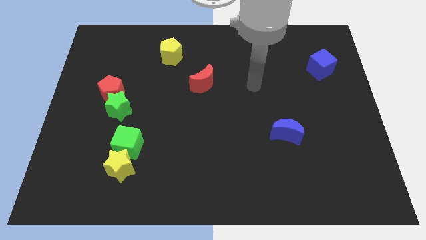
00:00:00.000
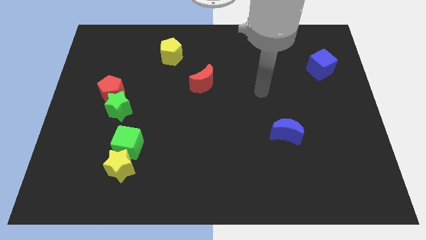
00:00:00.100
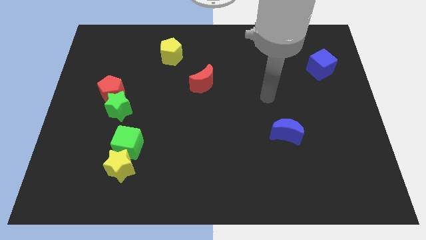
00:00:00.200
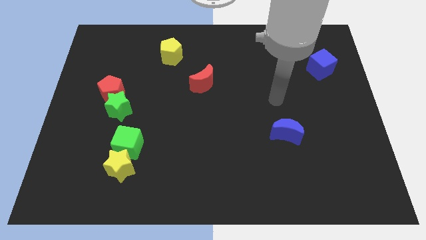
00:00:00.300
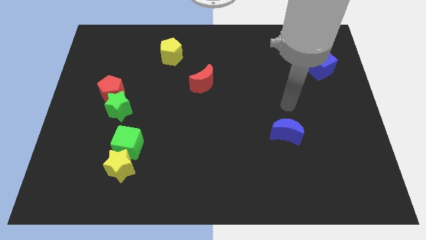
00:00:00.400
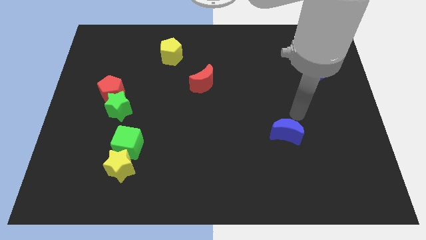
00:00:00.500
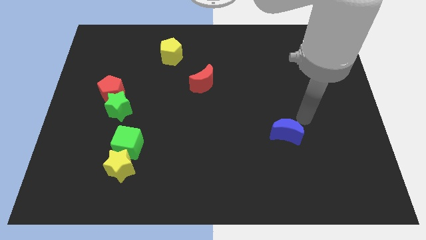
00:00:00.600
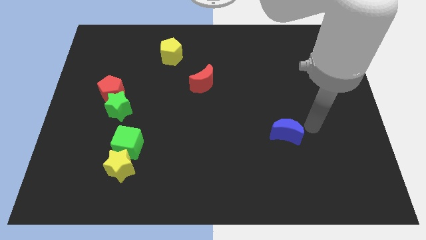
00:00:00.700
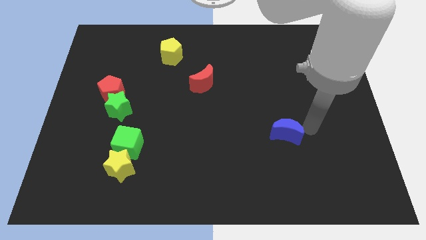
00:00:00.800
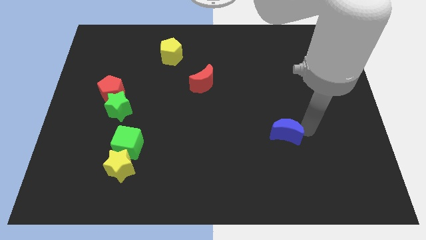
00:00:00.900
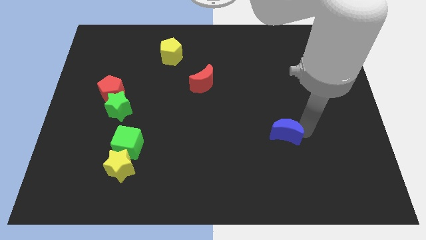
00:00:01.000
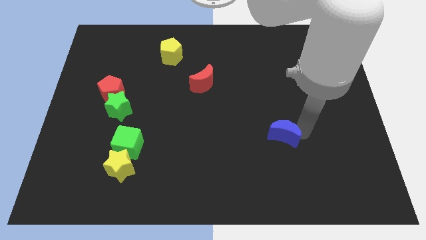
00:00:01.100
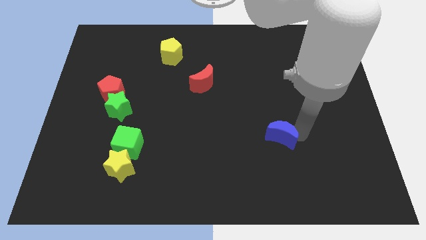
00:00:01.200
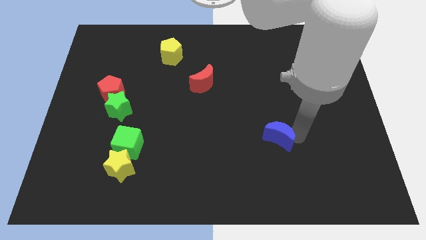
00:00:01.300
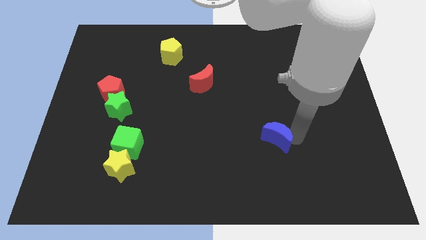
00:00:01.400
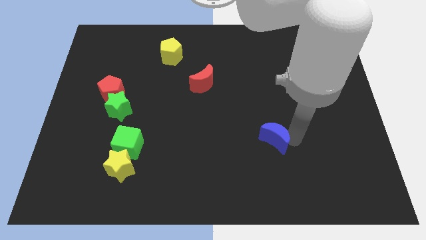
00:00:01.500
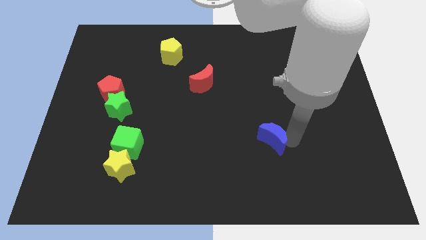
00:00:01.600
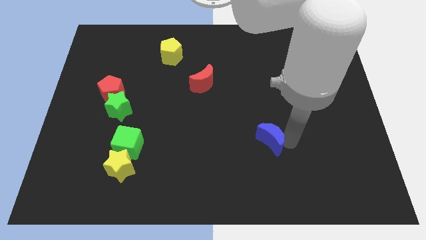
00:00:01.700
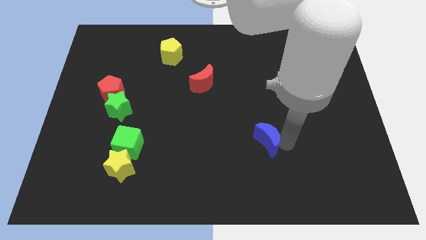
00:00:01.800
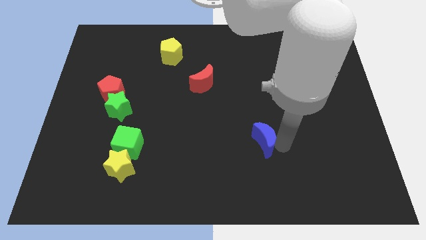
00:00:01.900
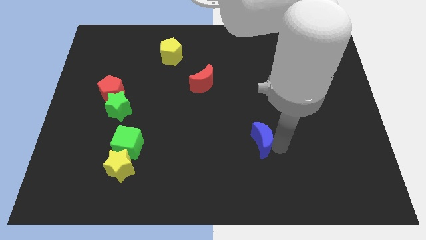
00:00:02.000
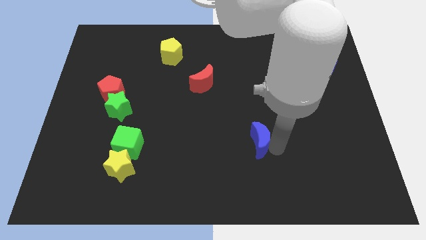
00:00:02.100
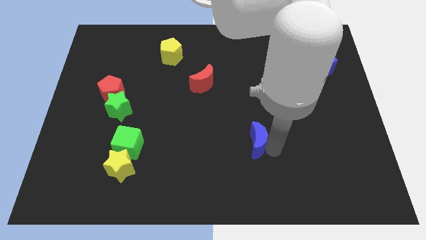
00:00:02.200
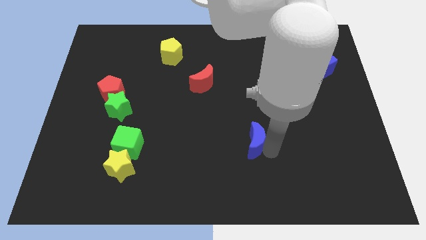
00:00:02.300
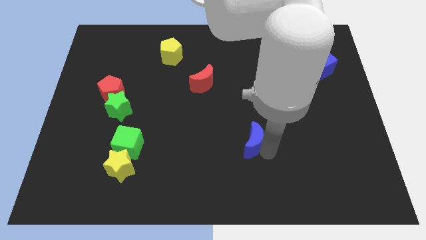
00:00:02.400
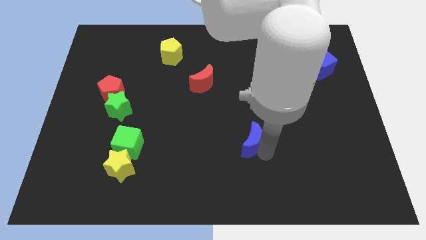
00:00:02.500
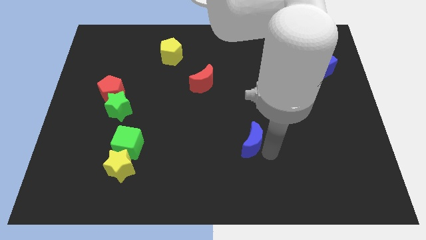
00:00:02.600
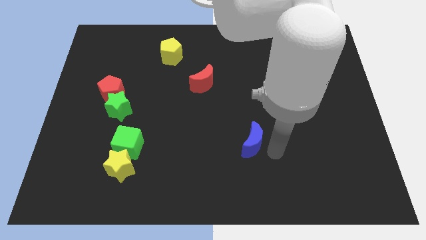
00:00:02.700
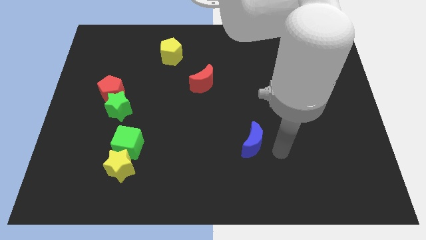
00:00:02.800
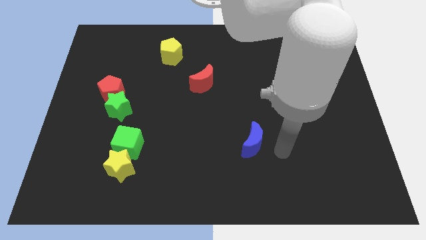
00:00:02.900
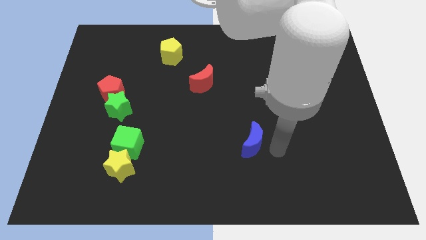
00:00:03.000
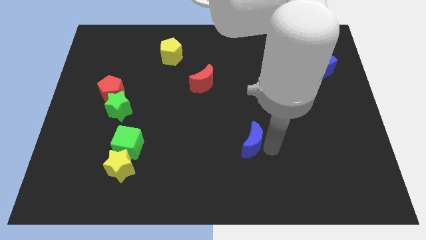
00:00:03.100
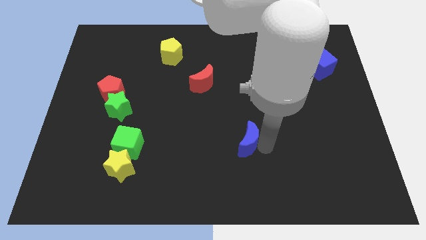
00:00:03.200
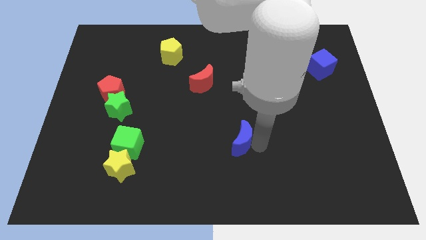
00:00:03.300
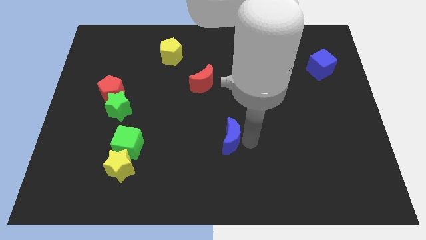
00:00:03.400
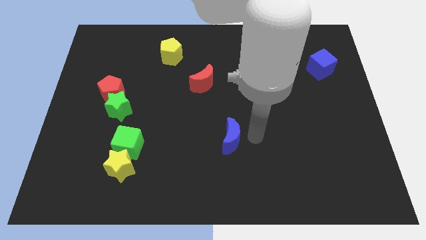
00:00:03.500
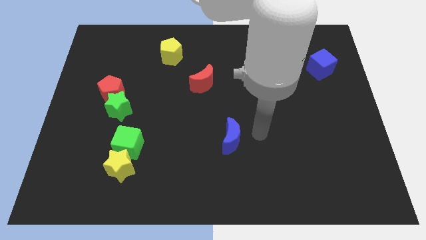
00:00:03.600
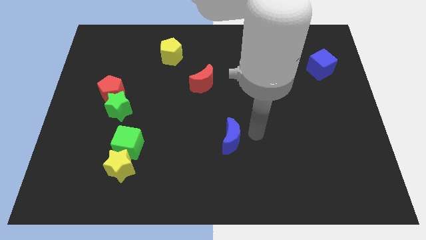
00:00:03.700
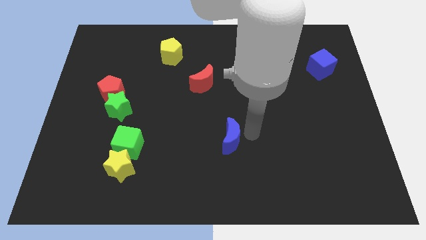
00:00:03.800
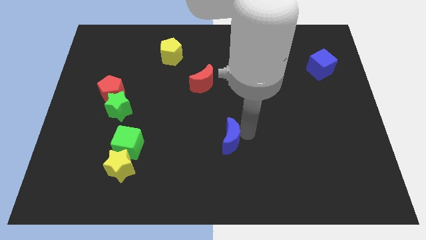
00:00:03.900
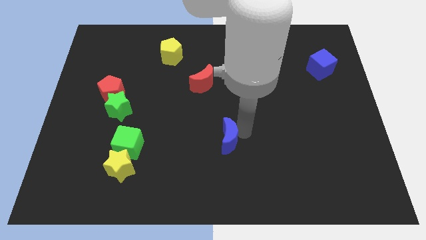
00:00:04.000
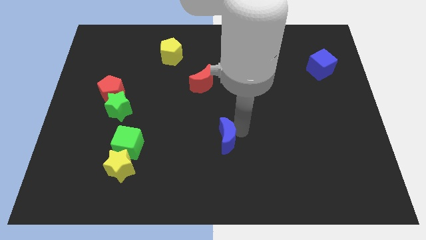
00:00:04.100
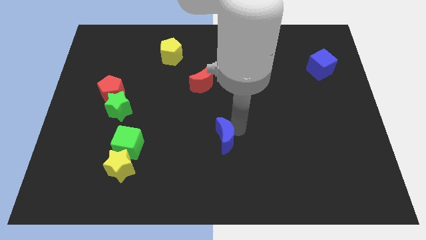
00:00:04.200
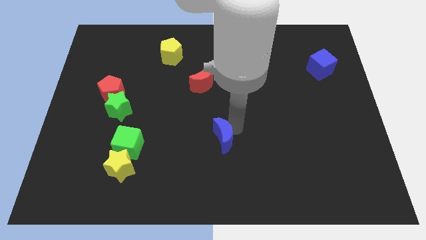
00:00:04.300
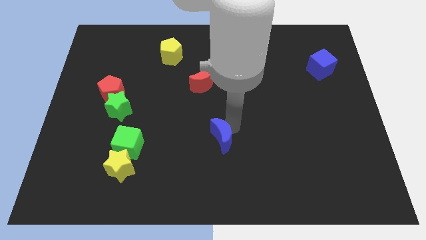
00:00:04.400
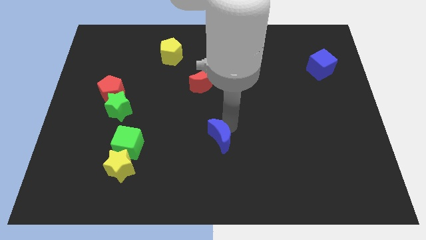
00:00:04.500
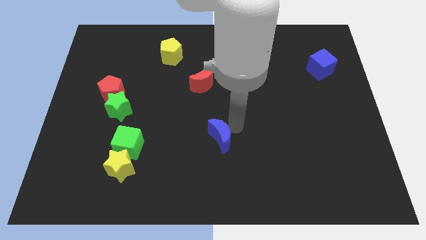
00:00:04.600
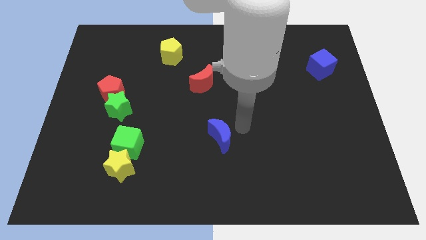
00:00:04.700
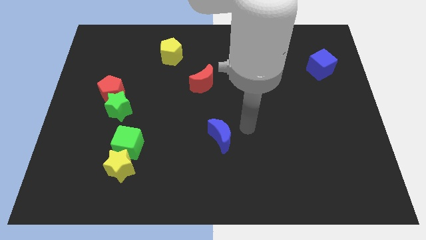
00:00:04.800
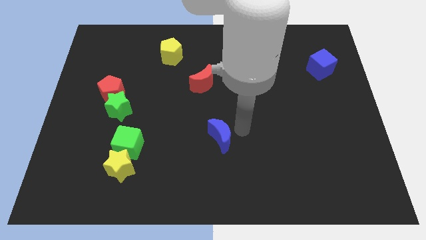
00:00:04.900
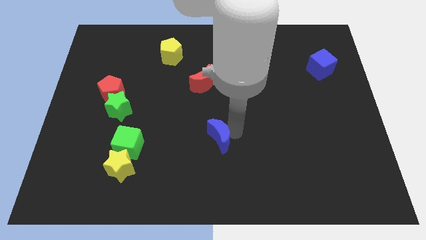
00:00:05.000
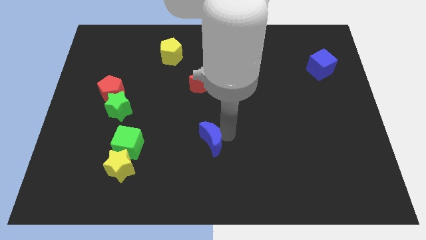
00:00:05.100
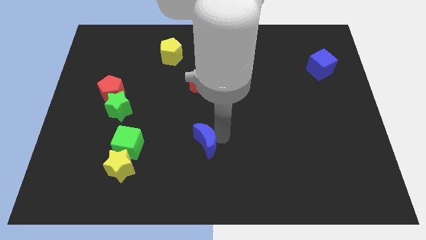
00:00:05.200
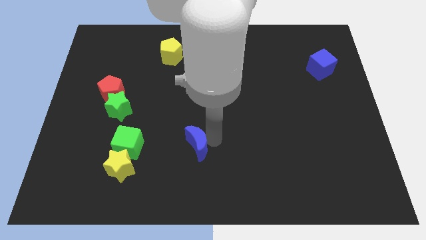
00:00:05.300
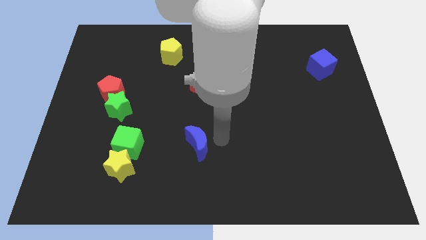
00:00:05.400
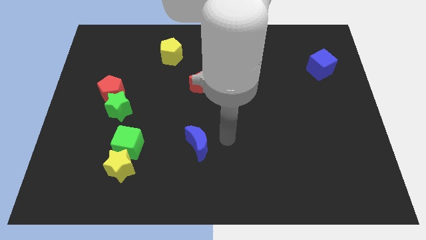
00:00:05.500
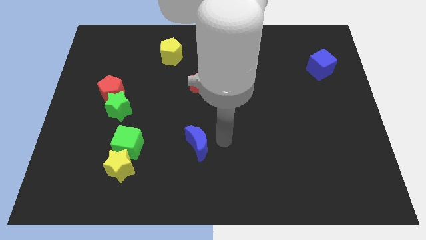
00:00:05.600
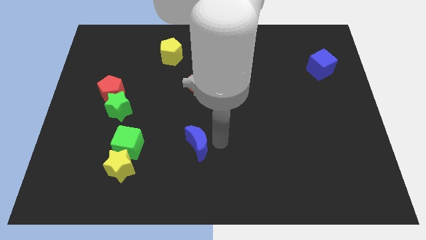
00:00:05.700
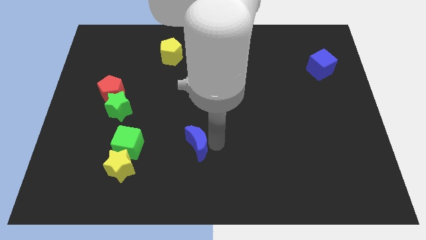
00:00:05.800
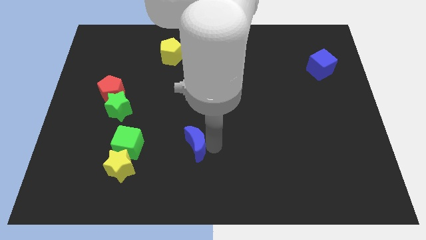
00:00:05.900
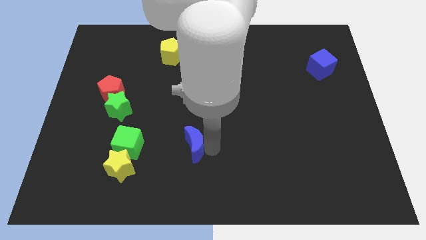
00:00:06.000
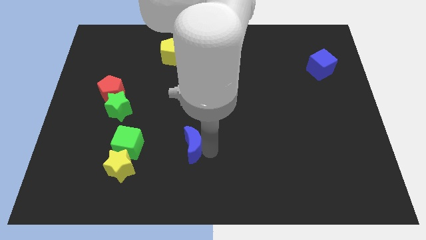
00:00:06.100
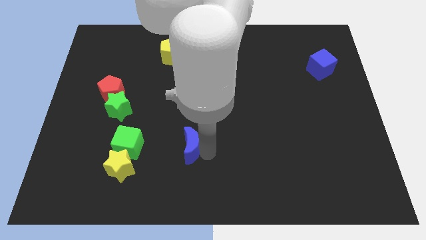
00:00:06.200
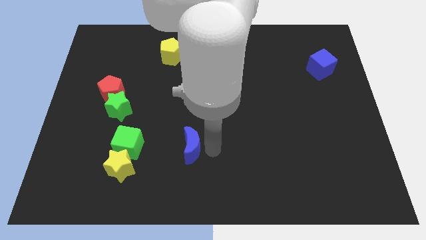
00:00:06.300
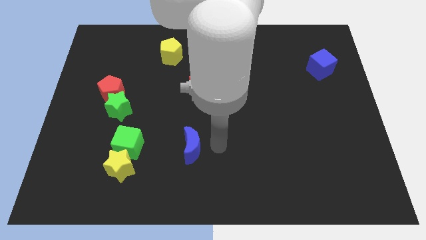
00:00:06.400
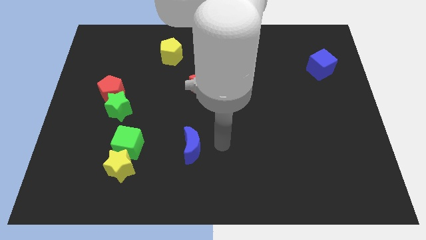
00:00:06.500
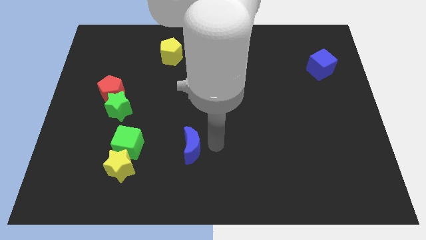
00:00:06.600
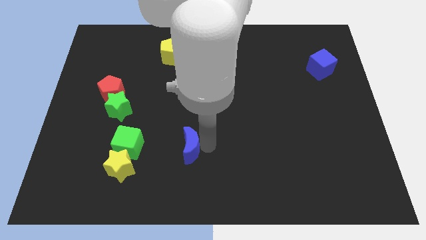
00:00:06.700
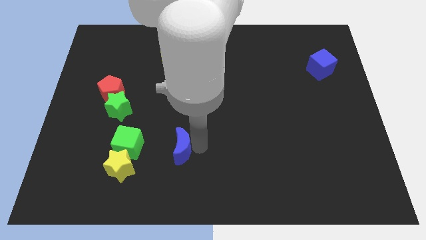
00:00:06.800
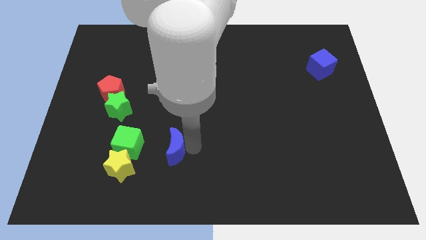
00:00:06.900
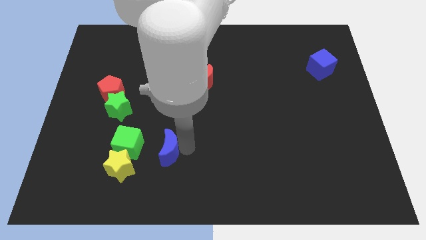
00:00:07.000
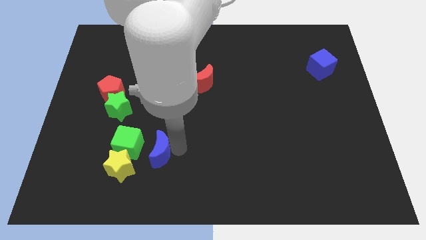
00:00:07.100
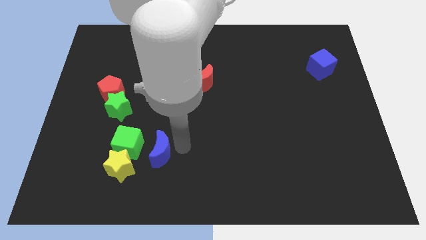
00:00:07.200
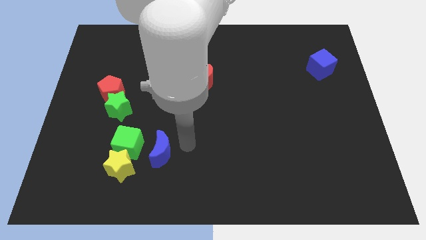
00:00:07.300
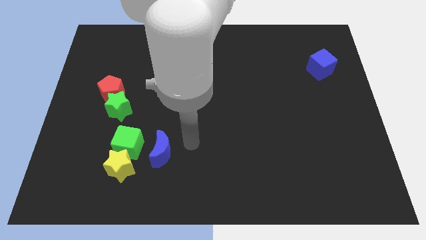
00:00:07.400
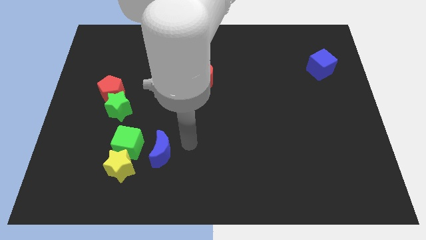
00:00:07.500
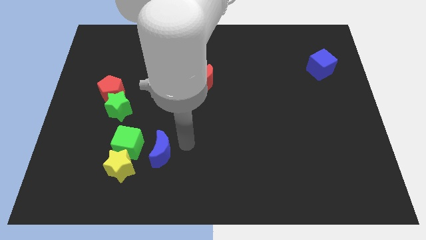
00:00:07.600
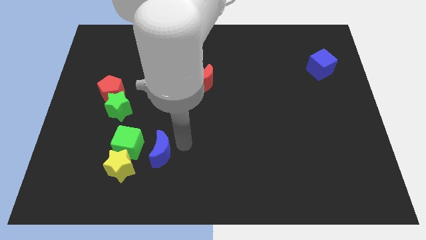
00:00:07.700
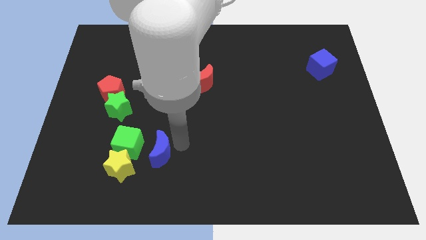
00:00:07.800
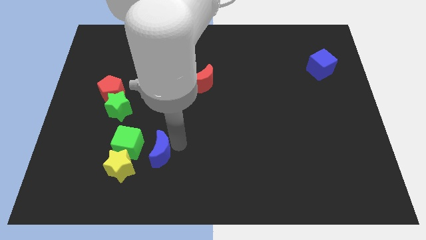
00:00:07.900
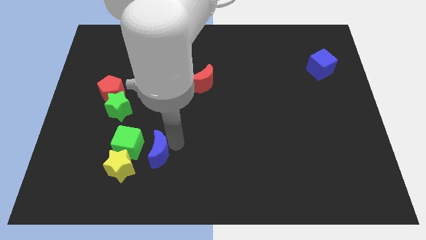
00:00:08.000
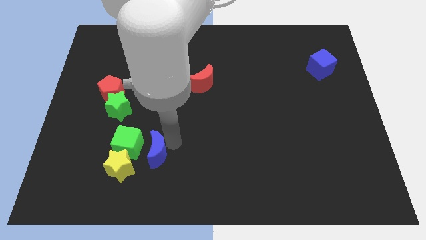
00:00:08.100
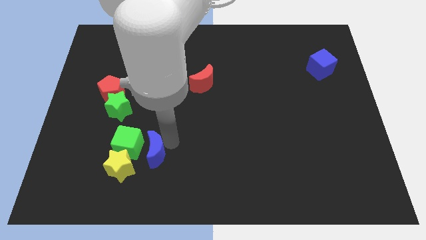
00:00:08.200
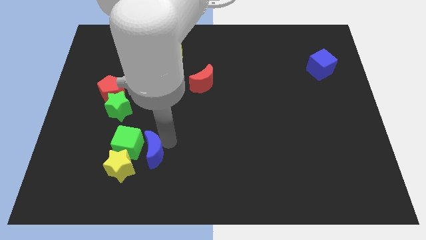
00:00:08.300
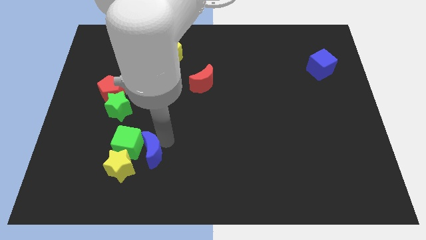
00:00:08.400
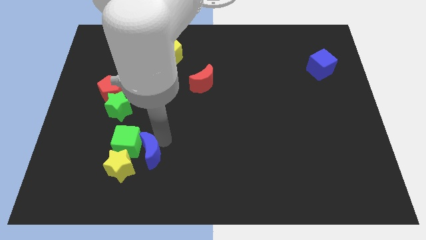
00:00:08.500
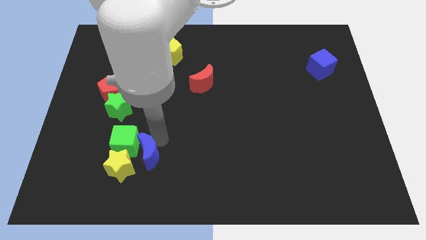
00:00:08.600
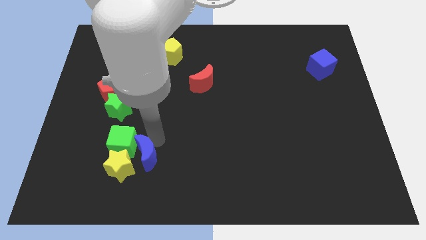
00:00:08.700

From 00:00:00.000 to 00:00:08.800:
move the blue moon next to the yellow star
